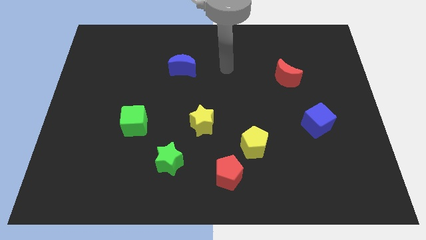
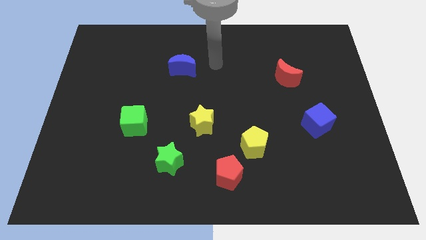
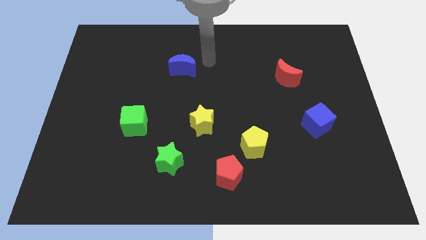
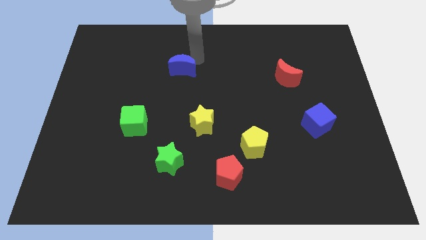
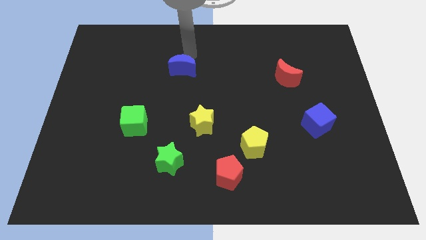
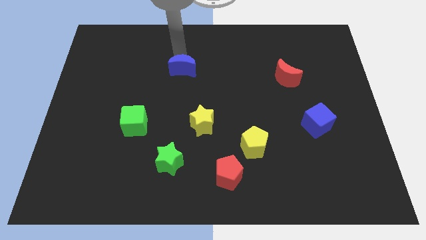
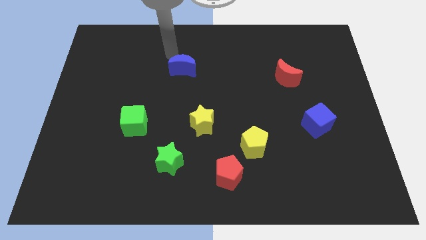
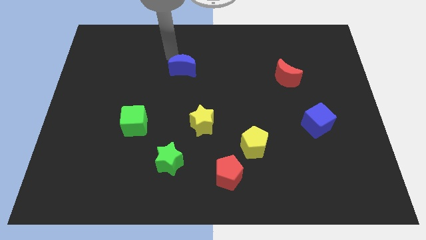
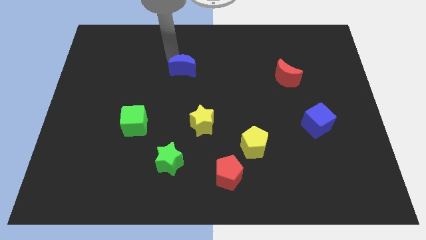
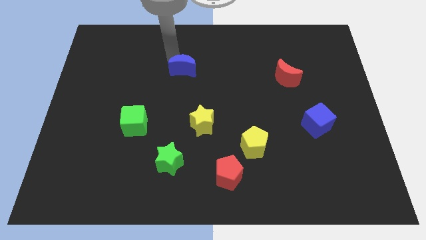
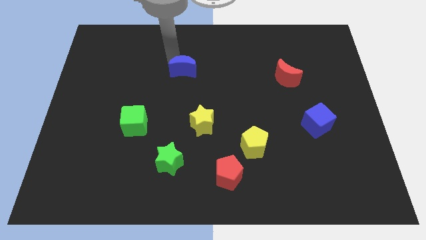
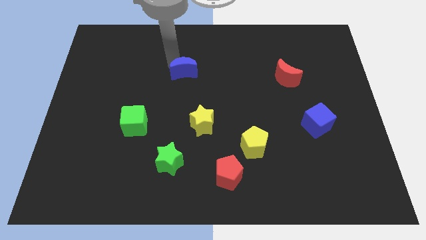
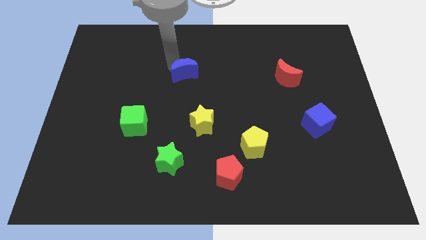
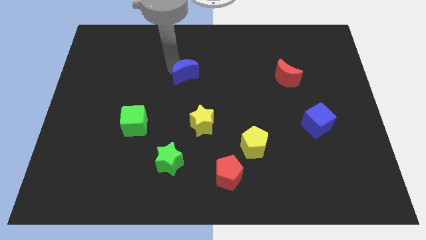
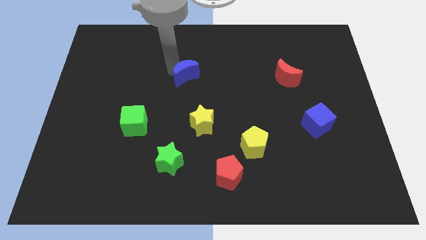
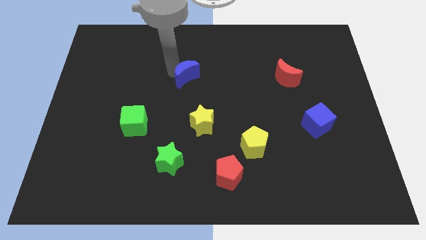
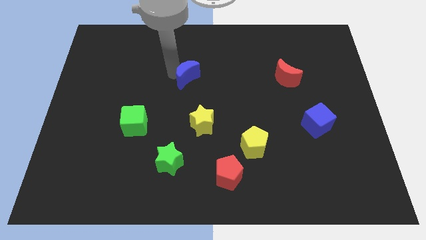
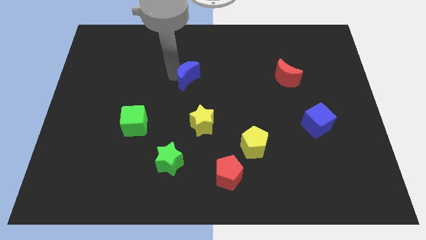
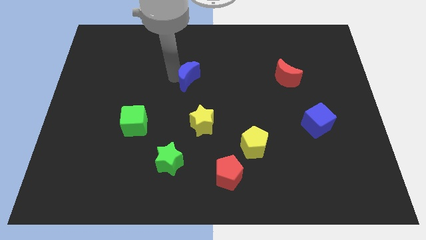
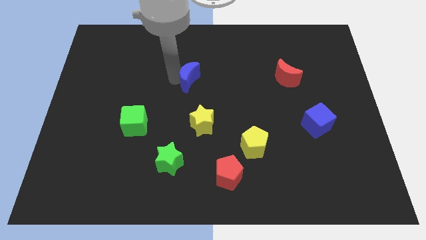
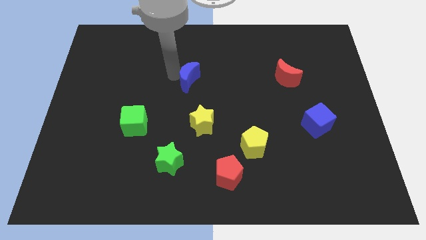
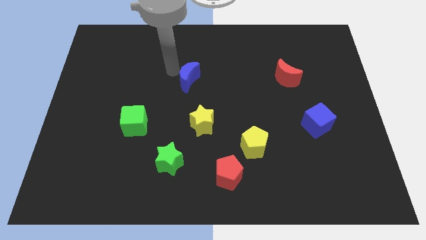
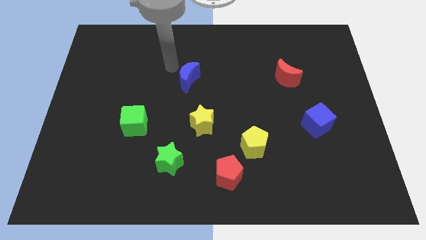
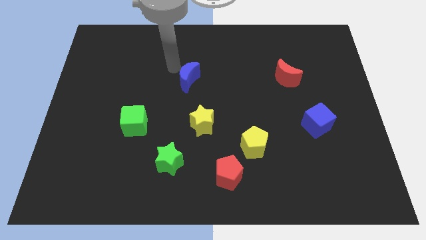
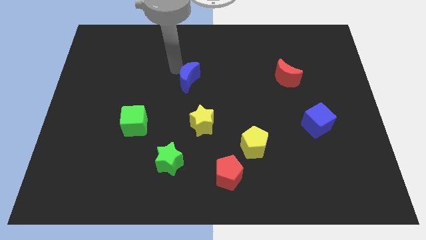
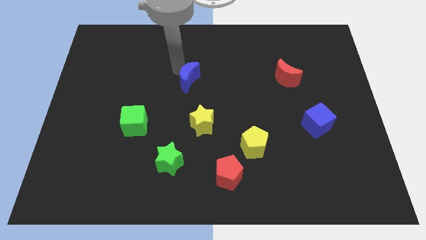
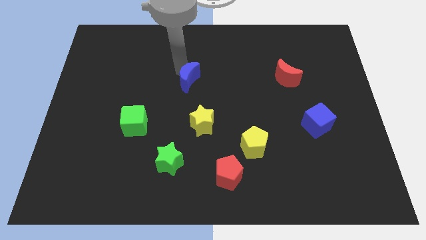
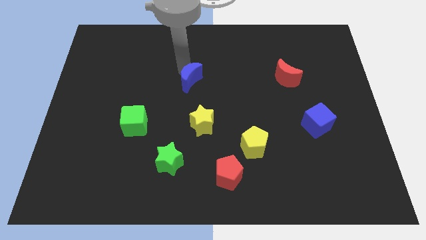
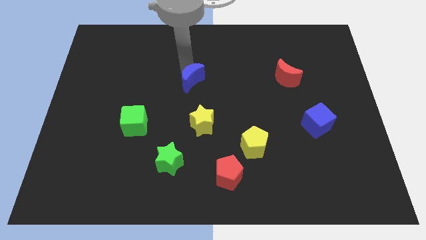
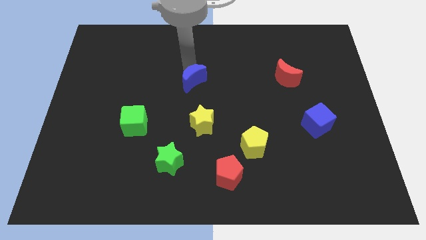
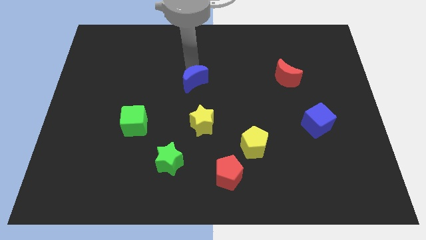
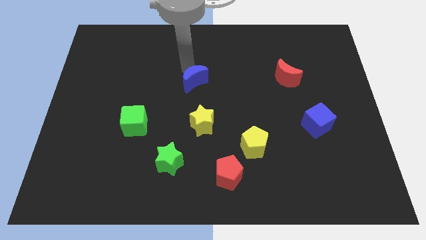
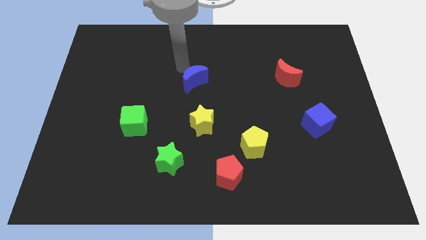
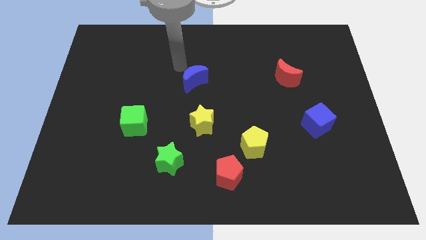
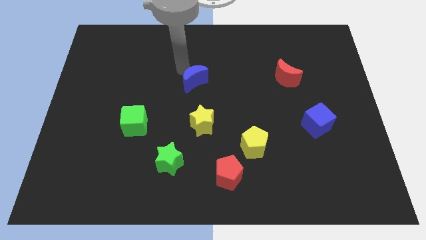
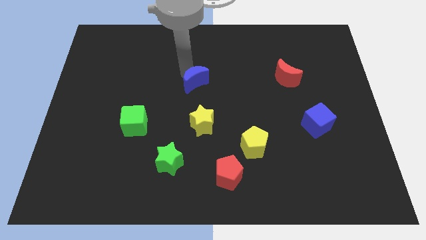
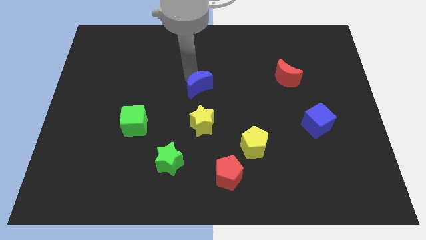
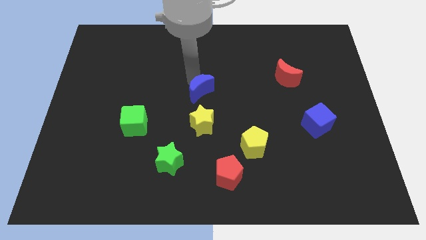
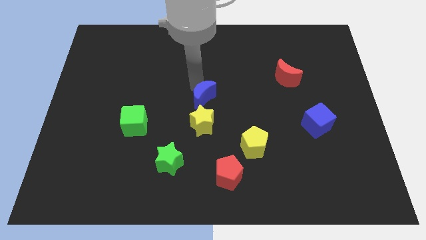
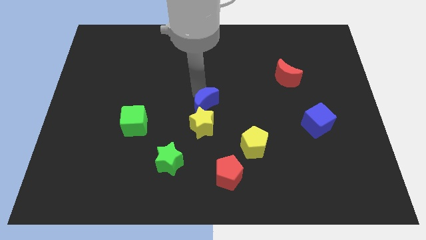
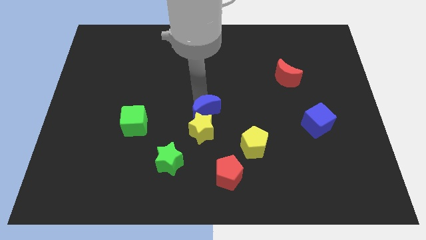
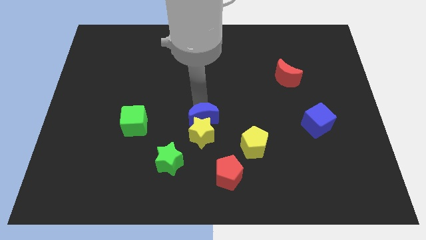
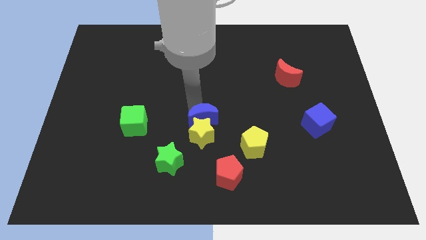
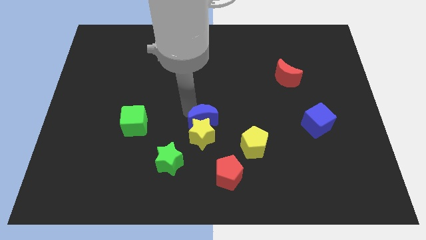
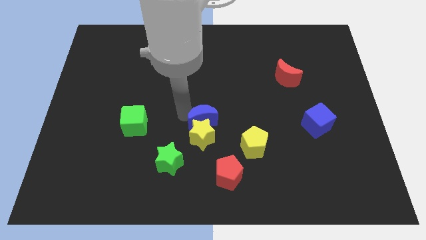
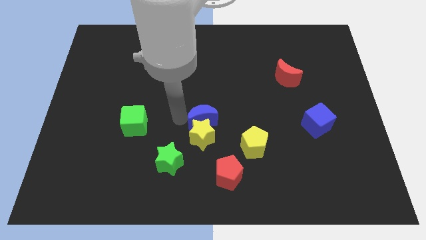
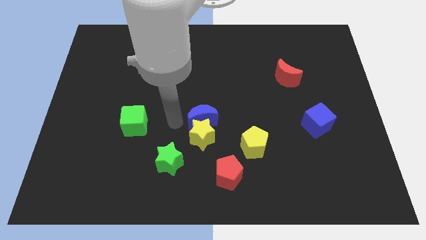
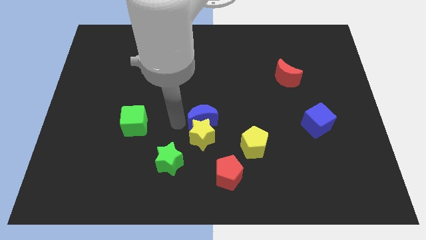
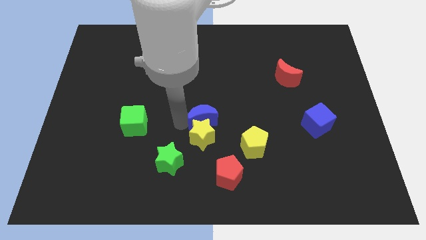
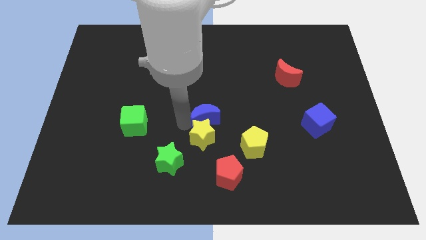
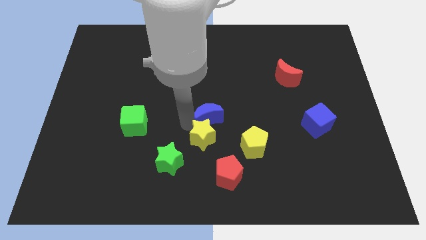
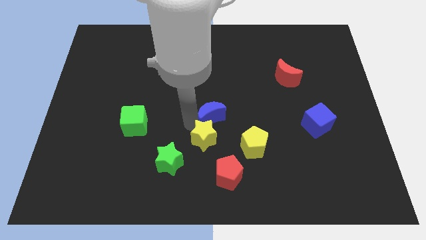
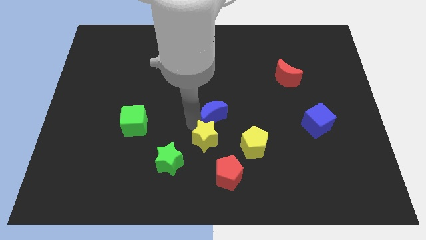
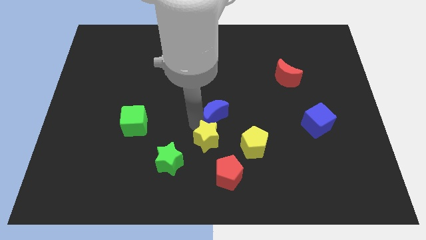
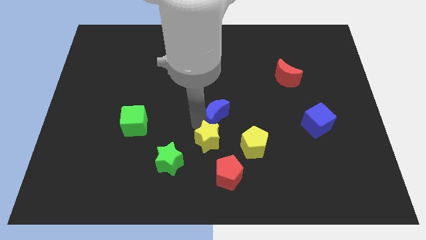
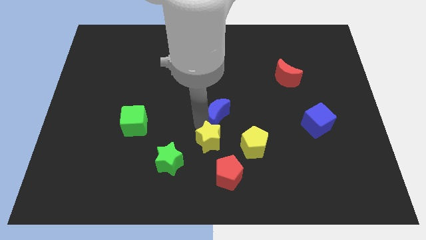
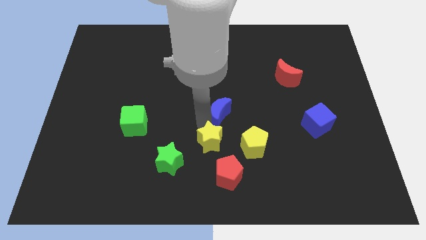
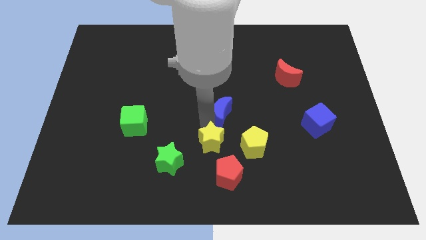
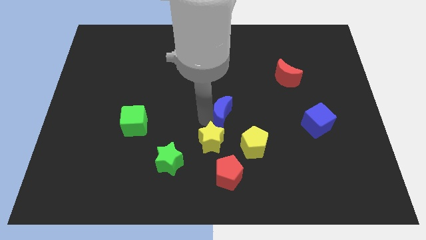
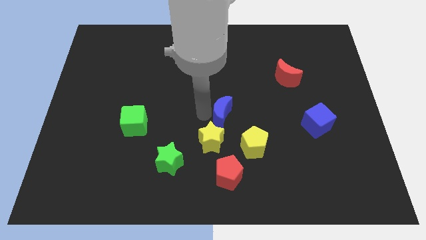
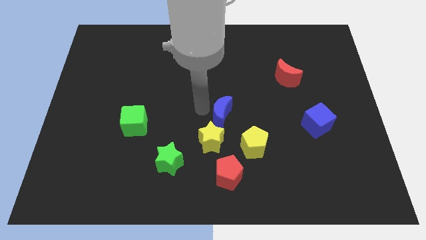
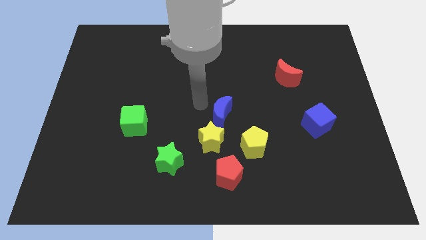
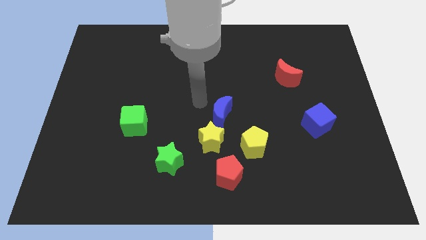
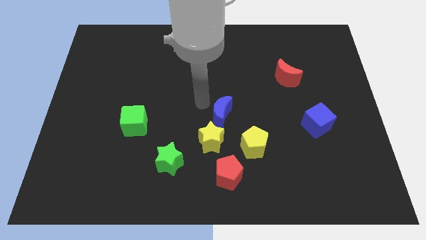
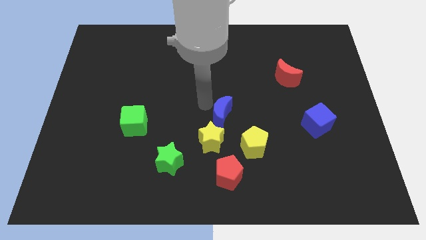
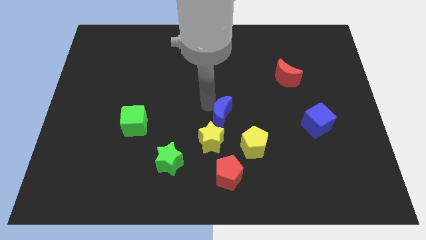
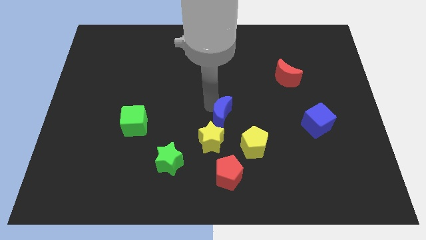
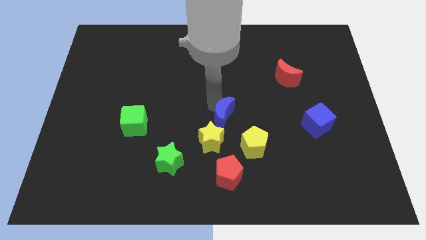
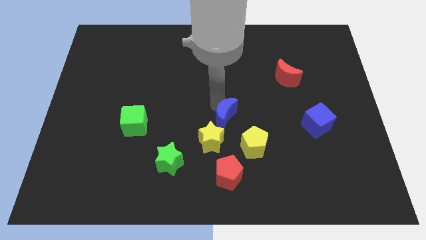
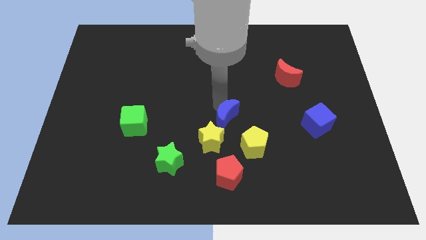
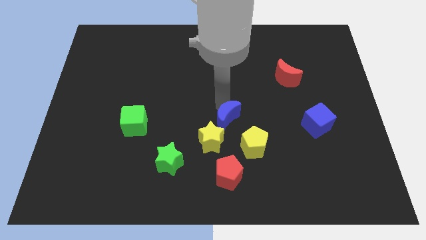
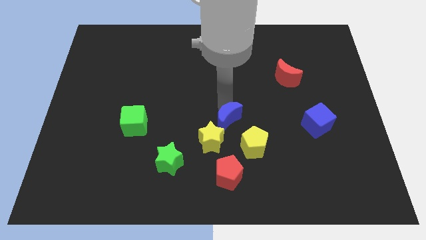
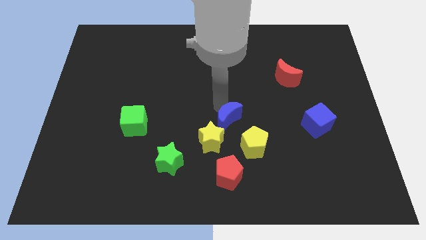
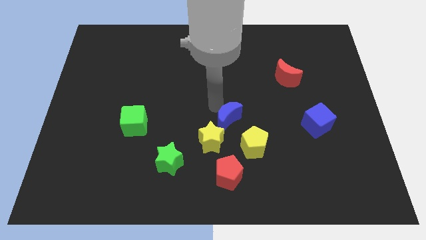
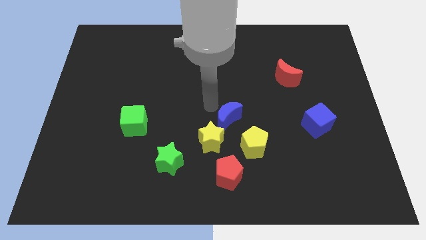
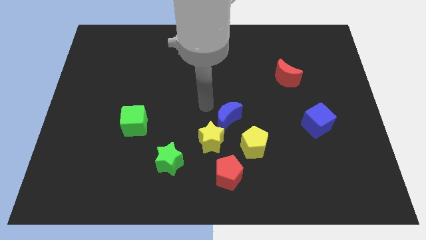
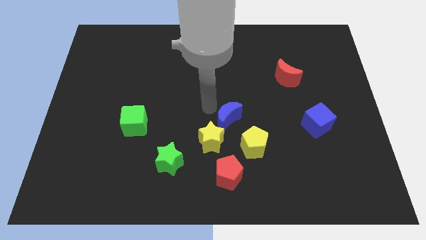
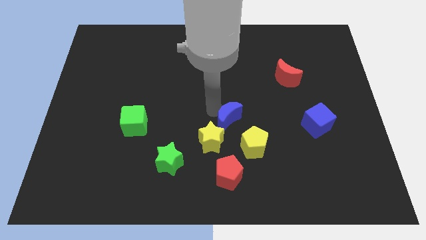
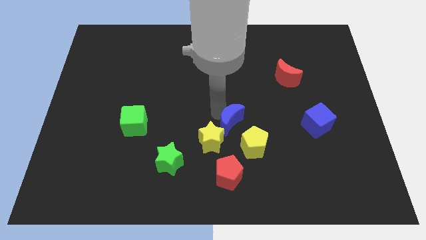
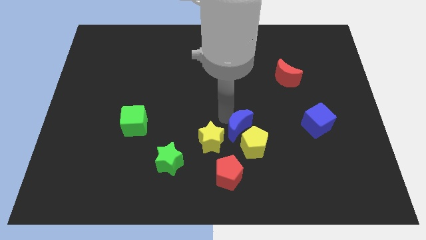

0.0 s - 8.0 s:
push the blue moon to the yellow pentagon
